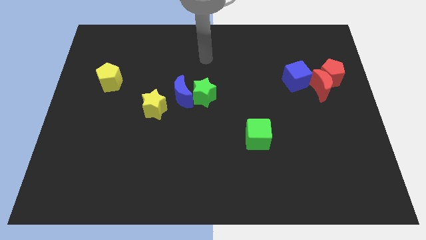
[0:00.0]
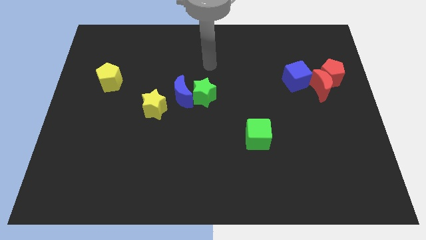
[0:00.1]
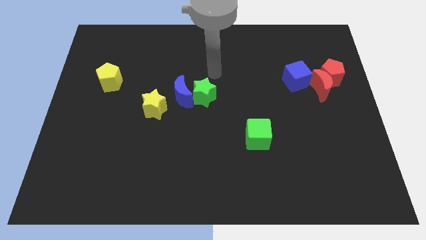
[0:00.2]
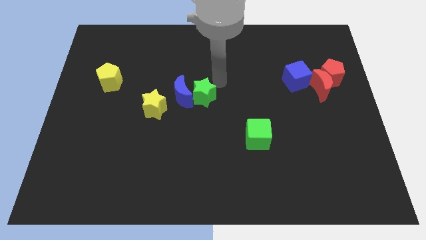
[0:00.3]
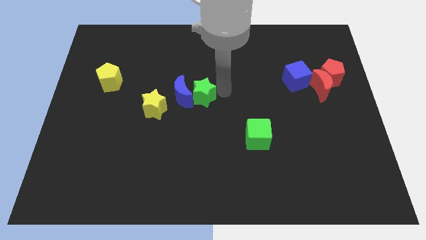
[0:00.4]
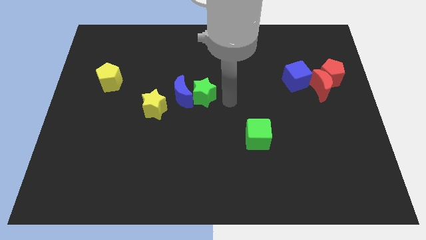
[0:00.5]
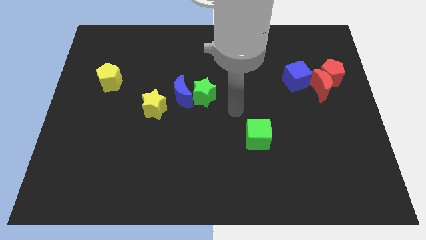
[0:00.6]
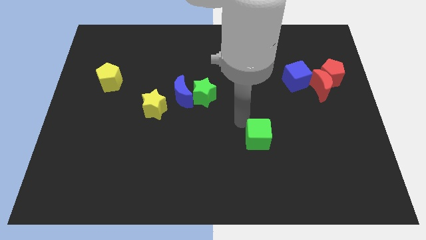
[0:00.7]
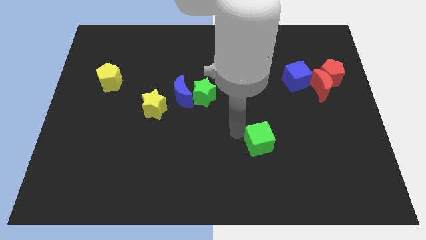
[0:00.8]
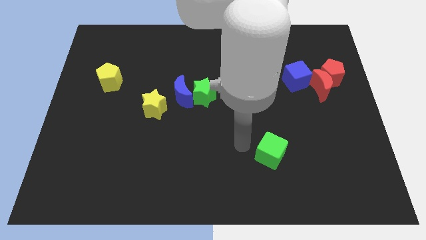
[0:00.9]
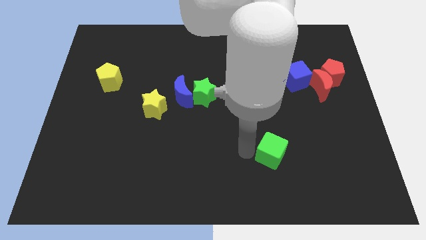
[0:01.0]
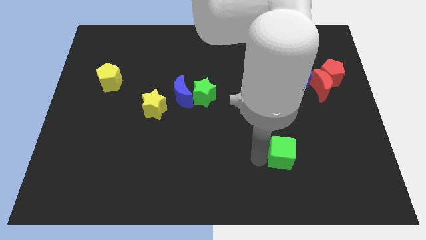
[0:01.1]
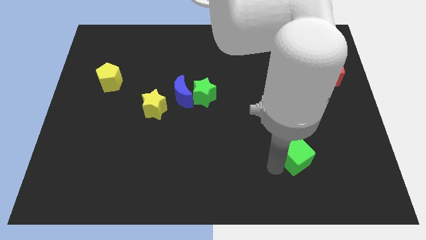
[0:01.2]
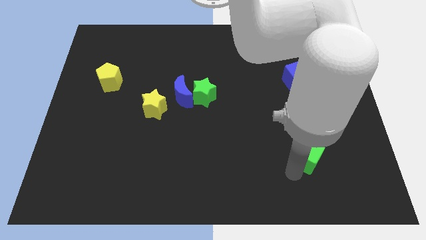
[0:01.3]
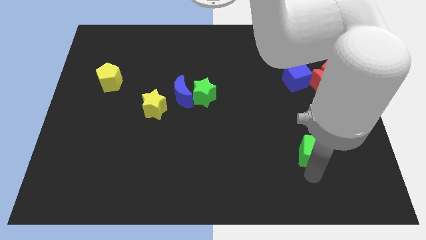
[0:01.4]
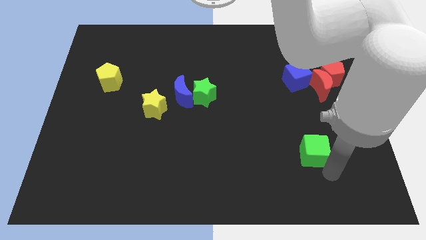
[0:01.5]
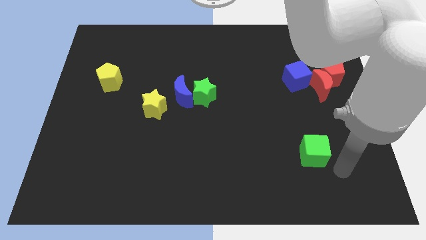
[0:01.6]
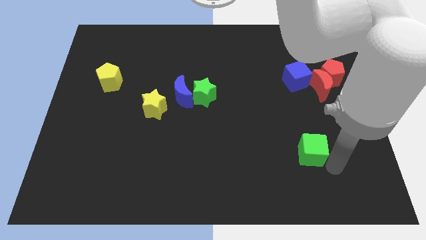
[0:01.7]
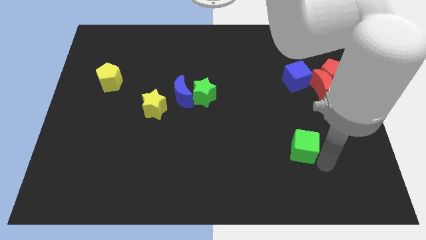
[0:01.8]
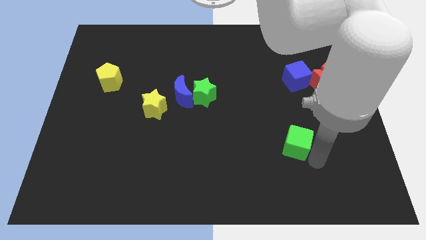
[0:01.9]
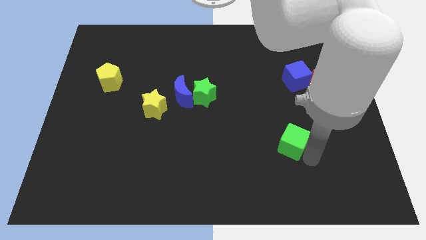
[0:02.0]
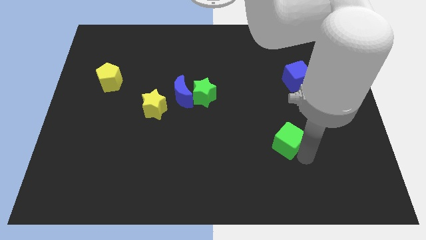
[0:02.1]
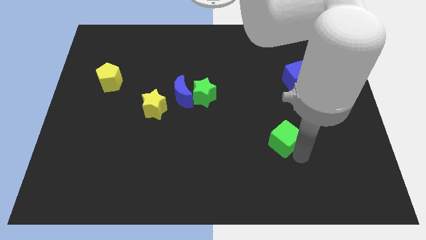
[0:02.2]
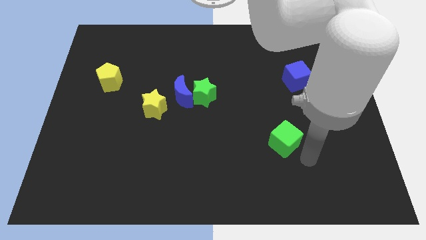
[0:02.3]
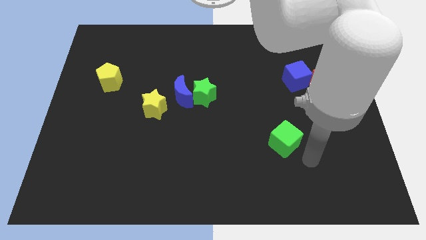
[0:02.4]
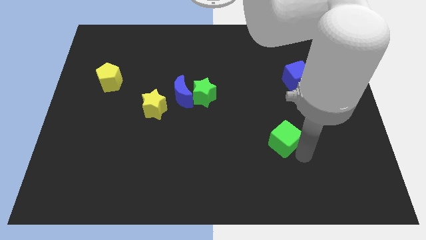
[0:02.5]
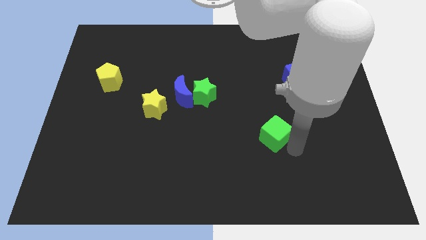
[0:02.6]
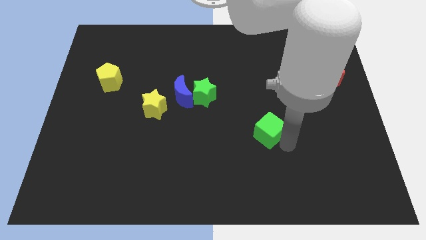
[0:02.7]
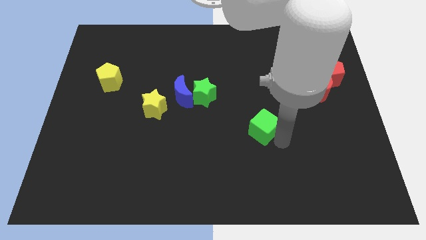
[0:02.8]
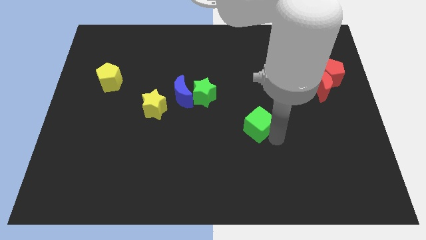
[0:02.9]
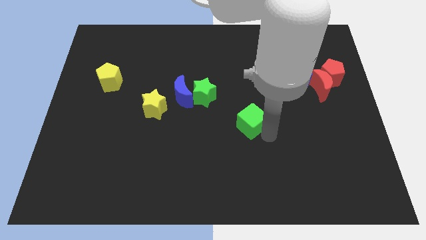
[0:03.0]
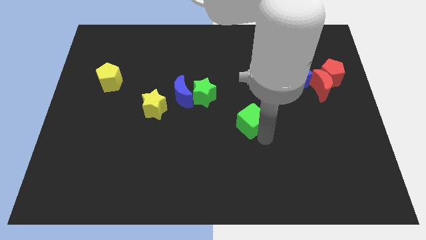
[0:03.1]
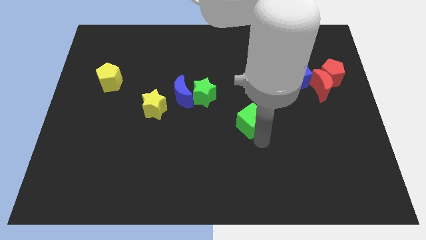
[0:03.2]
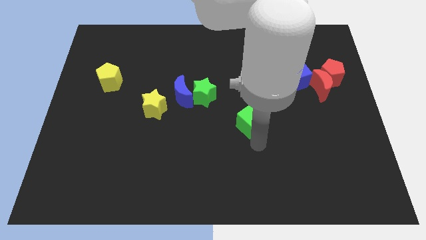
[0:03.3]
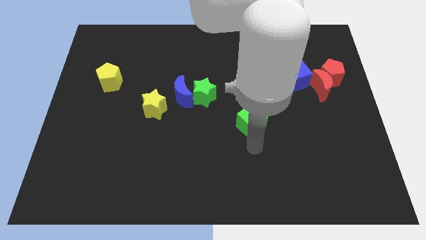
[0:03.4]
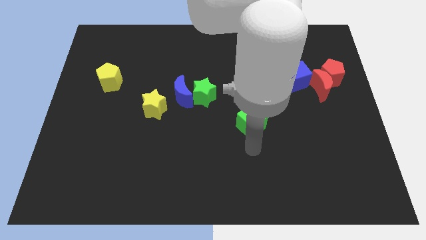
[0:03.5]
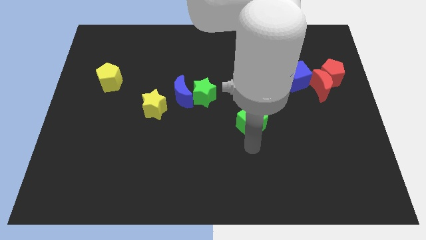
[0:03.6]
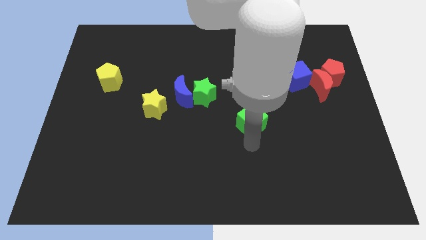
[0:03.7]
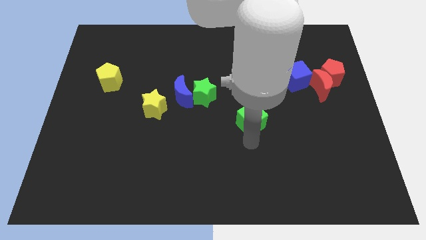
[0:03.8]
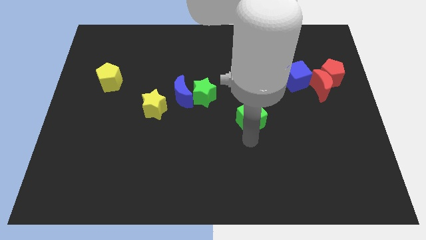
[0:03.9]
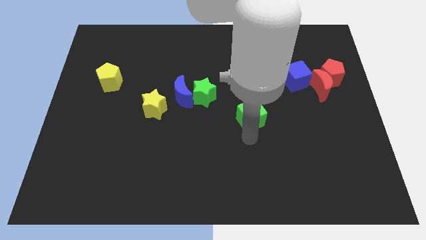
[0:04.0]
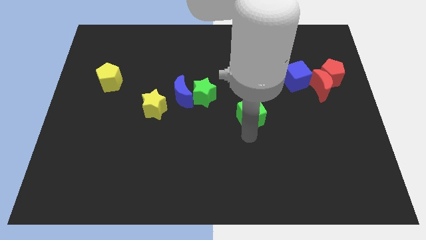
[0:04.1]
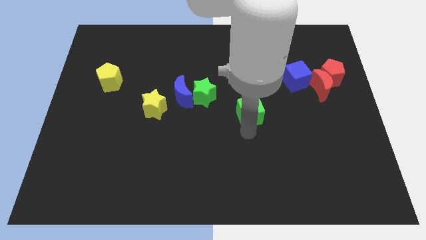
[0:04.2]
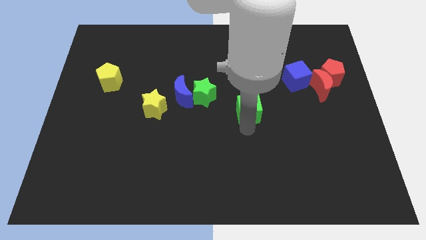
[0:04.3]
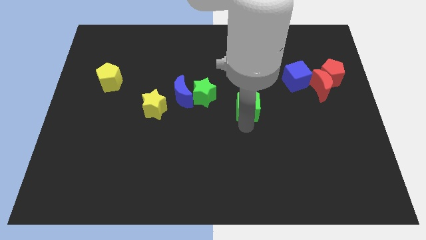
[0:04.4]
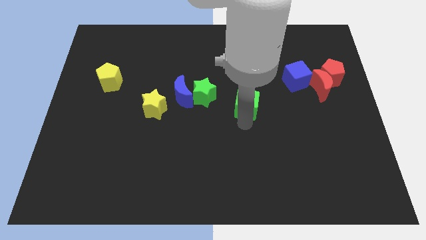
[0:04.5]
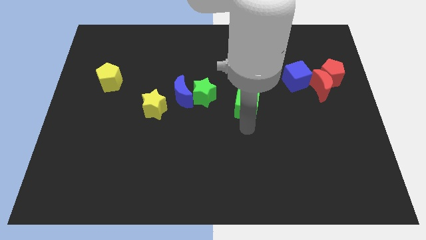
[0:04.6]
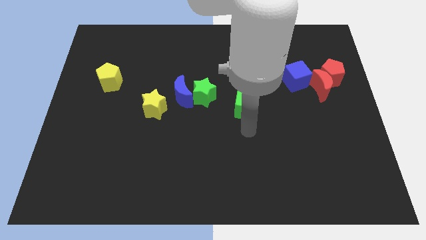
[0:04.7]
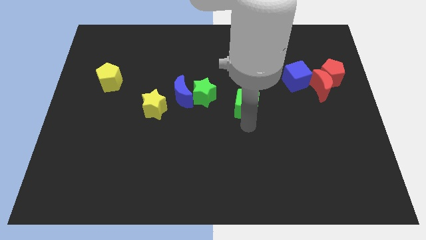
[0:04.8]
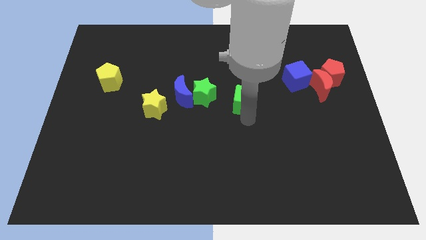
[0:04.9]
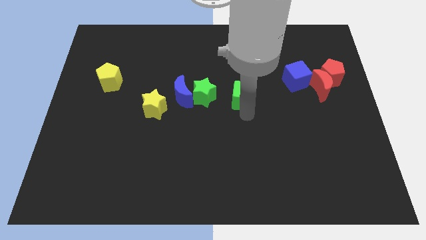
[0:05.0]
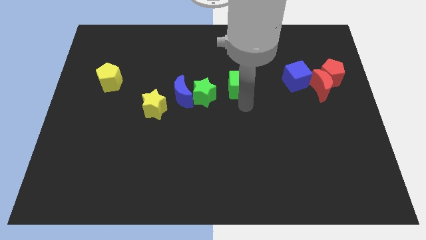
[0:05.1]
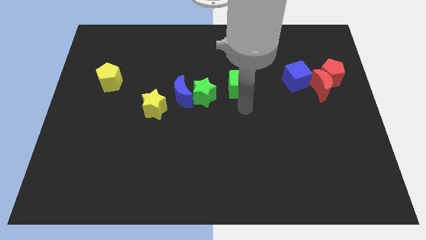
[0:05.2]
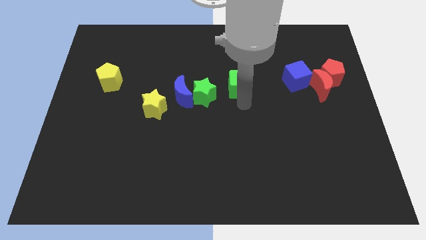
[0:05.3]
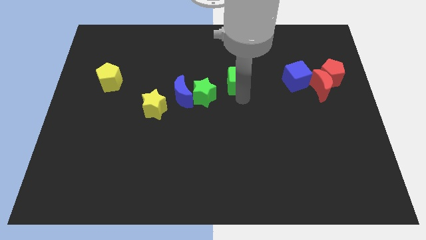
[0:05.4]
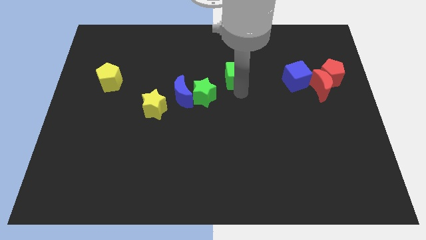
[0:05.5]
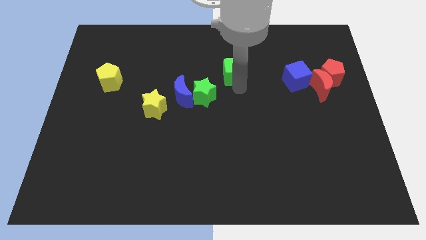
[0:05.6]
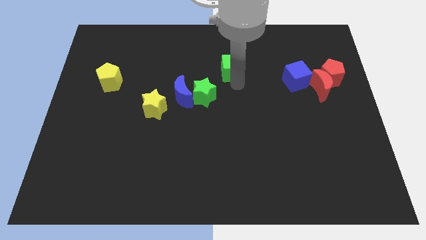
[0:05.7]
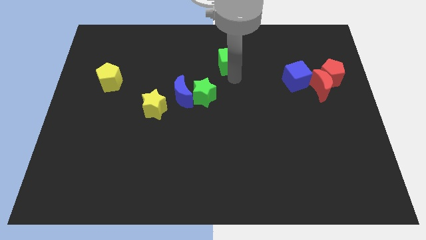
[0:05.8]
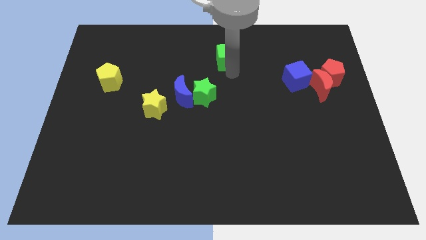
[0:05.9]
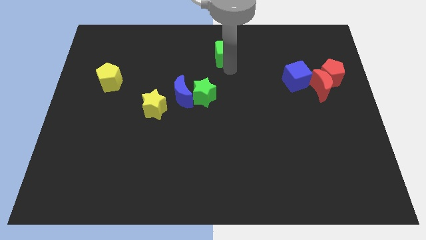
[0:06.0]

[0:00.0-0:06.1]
slide the green cube to the top

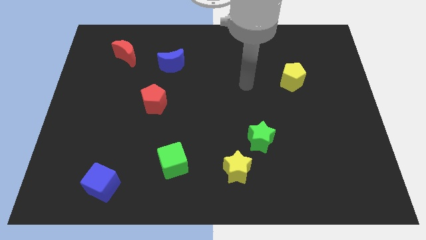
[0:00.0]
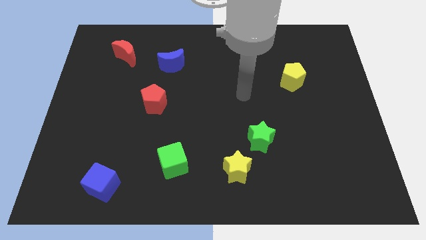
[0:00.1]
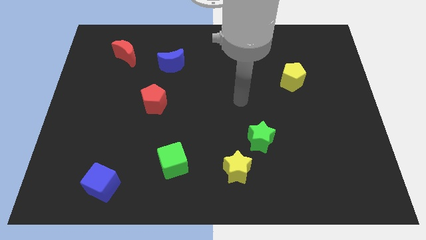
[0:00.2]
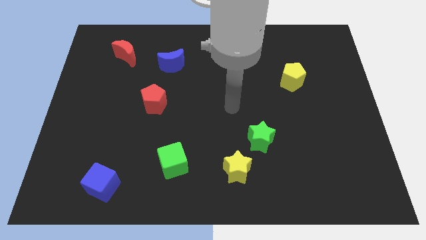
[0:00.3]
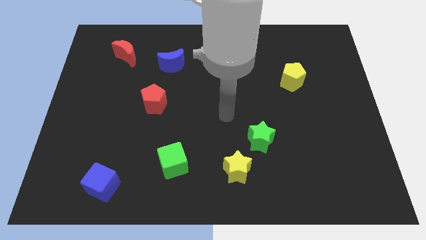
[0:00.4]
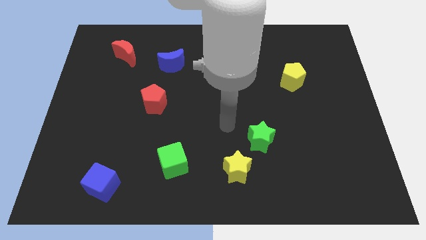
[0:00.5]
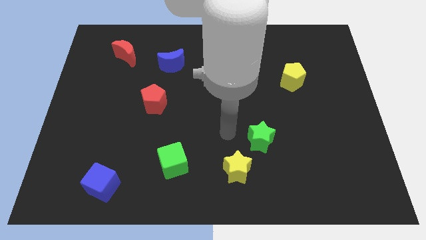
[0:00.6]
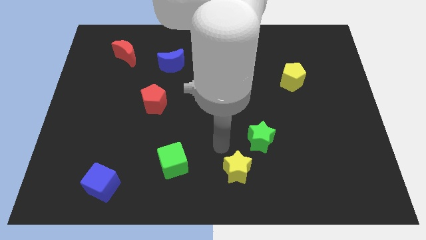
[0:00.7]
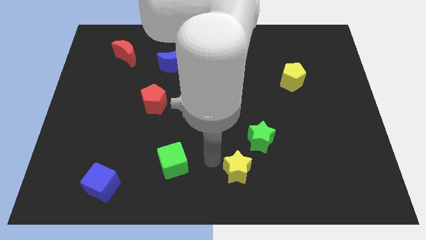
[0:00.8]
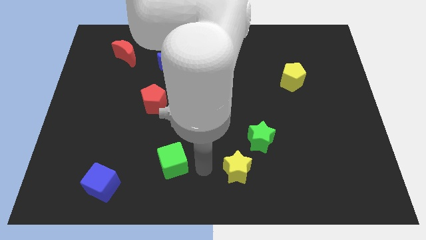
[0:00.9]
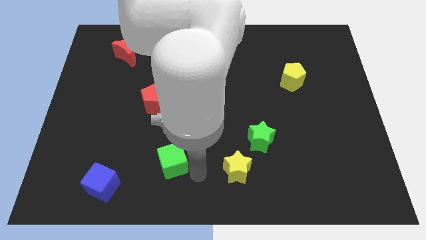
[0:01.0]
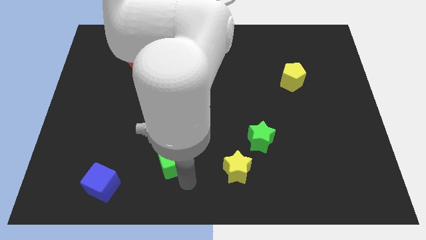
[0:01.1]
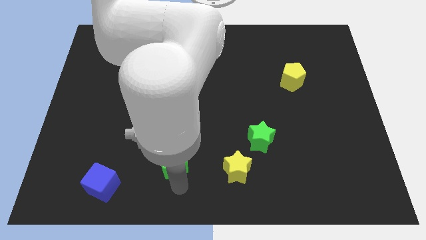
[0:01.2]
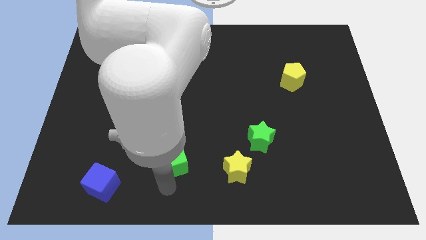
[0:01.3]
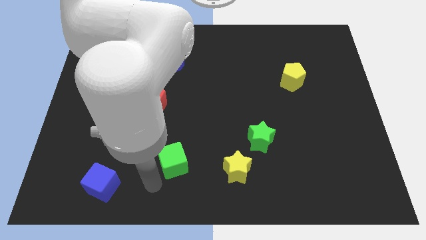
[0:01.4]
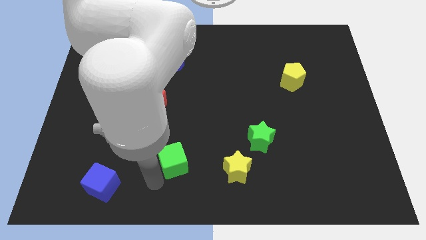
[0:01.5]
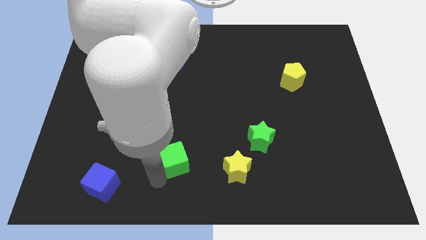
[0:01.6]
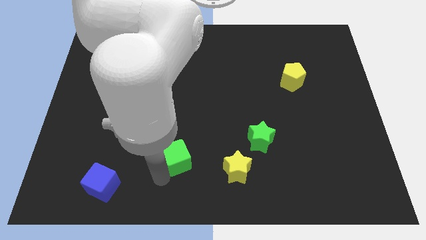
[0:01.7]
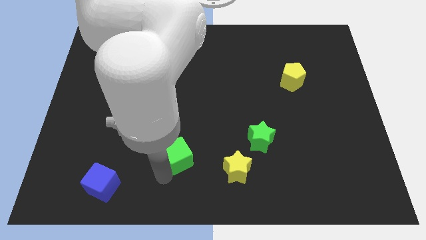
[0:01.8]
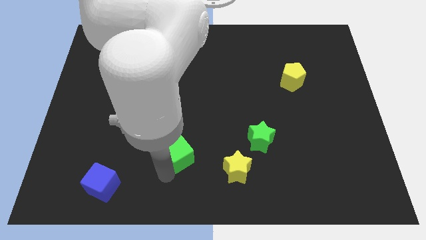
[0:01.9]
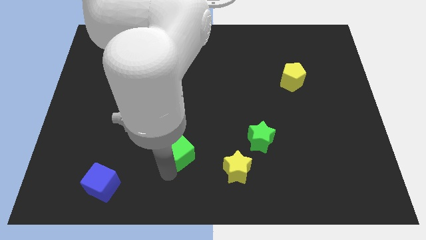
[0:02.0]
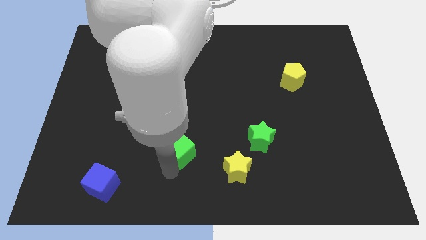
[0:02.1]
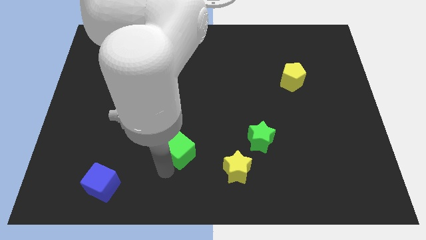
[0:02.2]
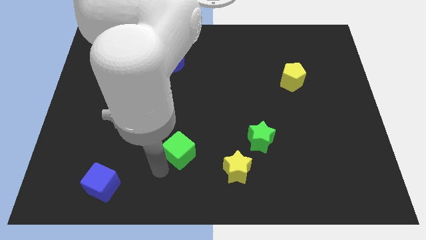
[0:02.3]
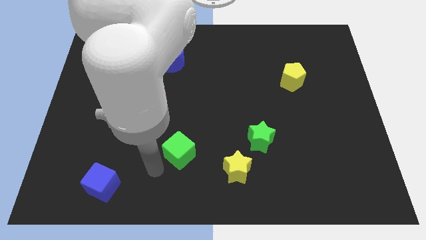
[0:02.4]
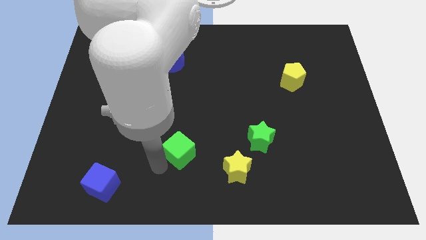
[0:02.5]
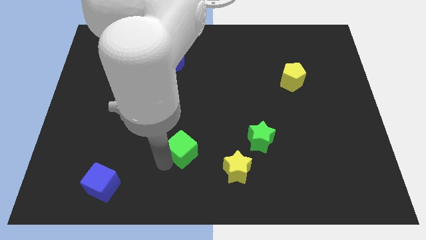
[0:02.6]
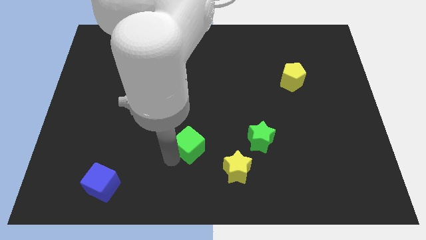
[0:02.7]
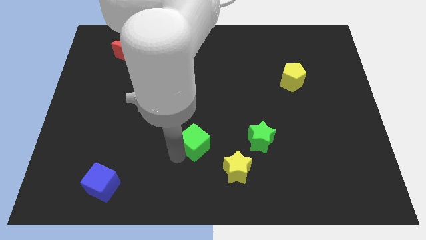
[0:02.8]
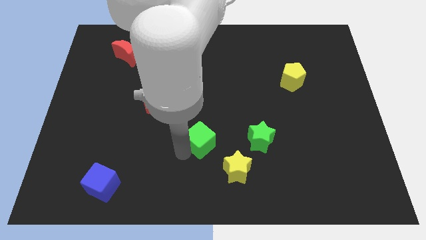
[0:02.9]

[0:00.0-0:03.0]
push the green cube to the middle of the board
